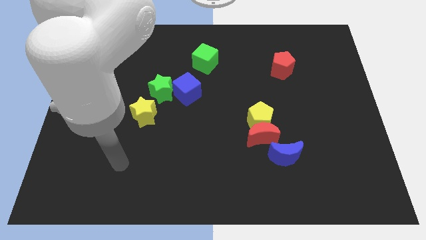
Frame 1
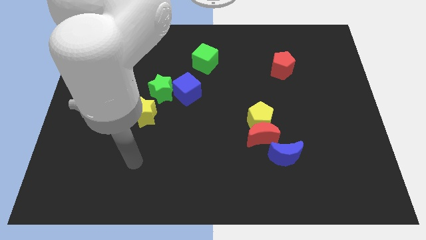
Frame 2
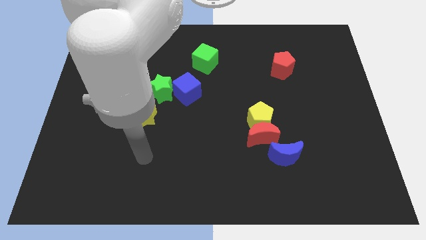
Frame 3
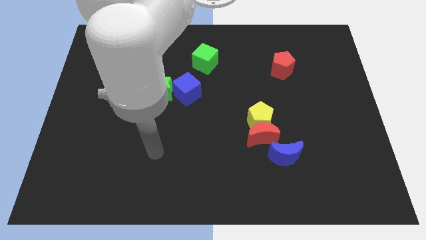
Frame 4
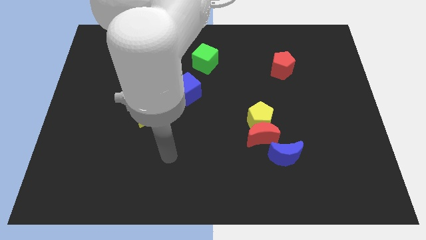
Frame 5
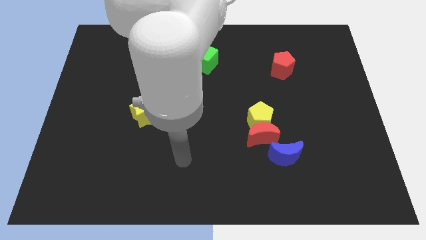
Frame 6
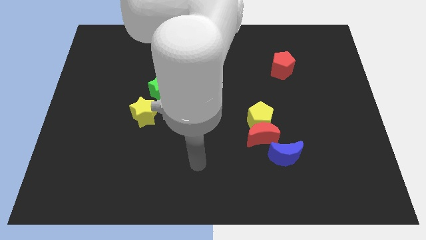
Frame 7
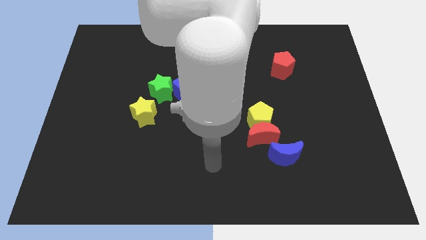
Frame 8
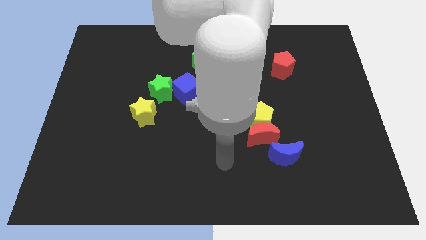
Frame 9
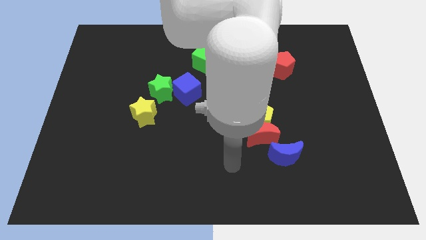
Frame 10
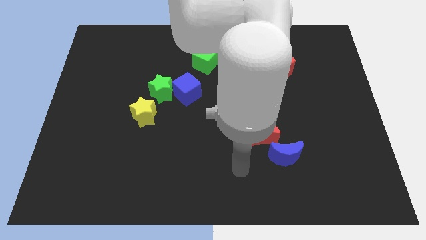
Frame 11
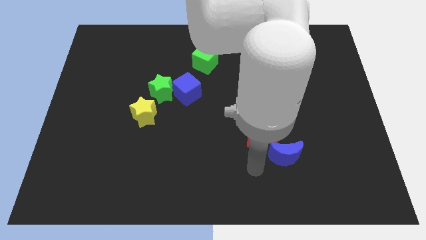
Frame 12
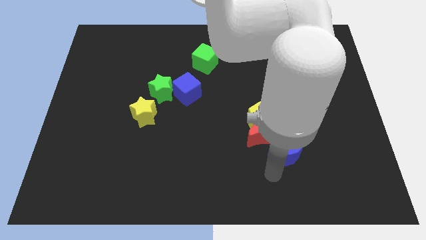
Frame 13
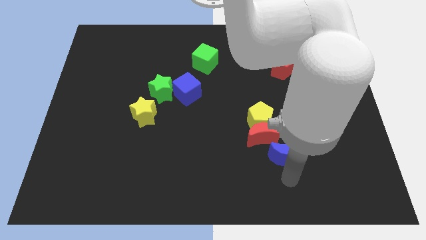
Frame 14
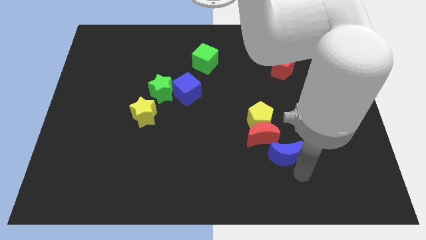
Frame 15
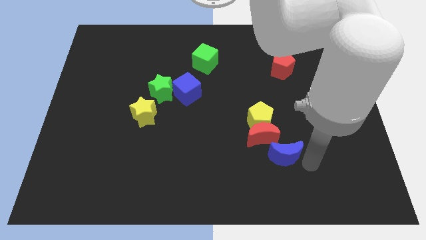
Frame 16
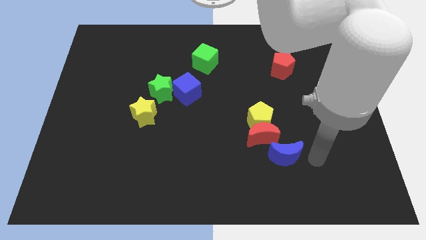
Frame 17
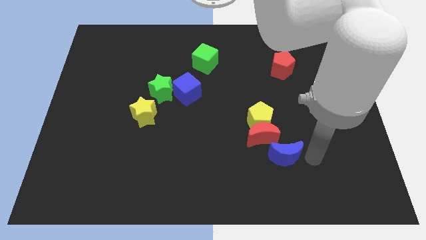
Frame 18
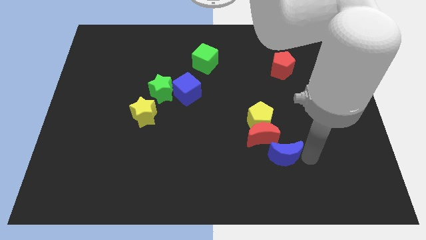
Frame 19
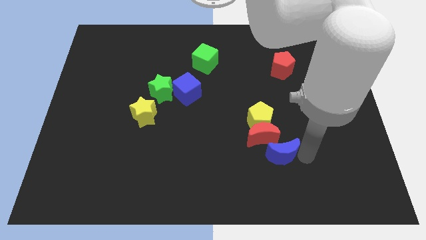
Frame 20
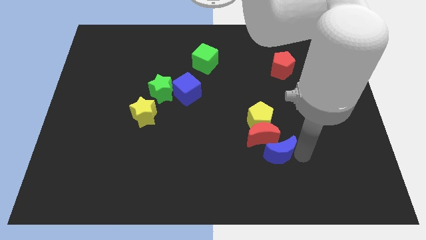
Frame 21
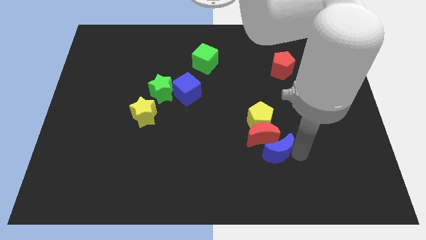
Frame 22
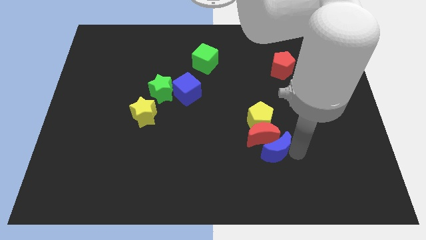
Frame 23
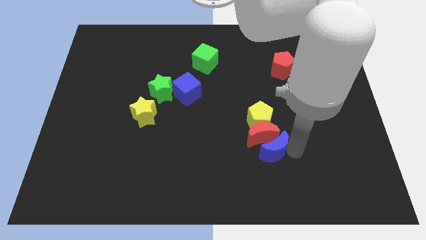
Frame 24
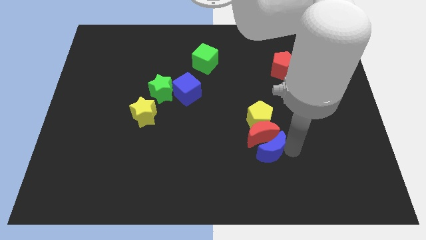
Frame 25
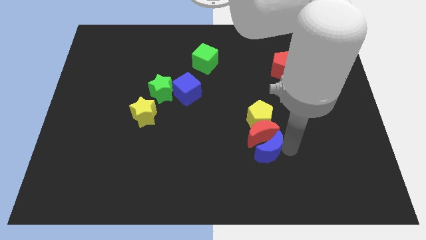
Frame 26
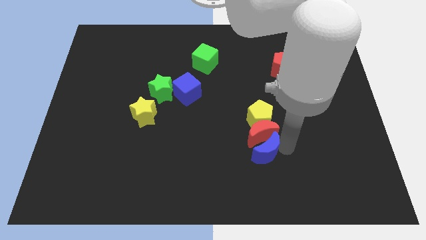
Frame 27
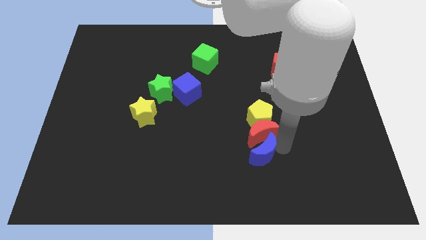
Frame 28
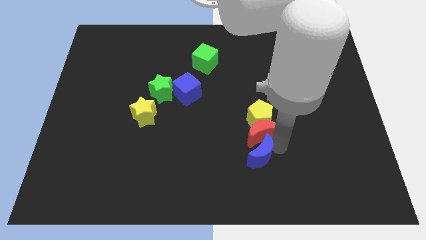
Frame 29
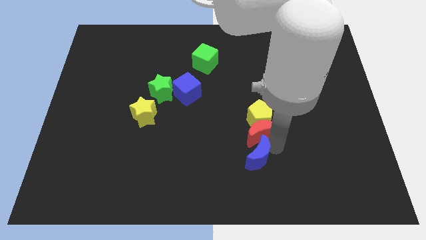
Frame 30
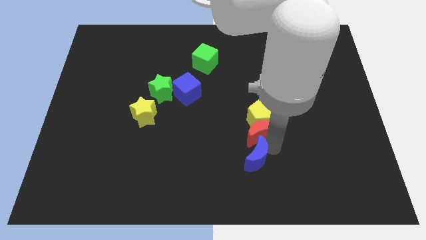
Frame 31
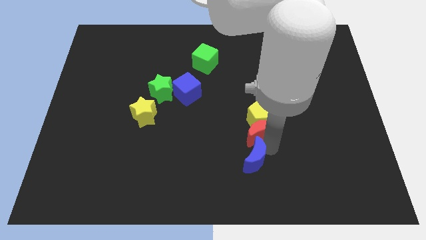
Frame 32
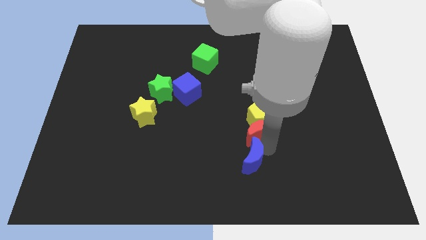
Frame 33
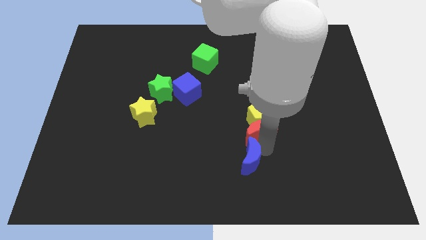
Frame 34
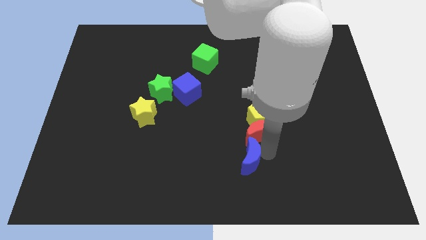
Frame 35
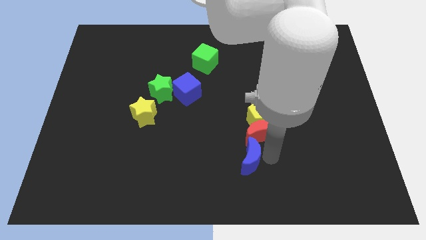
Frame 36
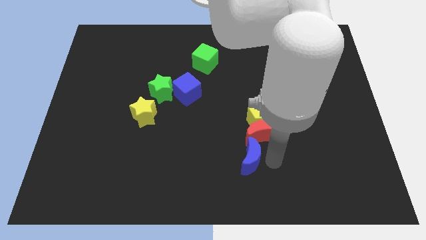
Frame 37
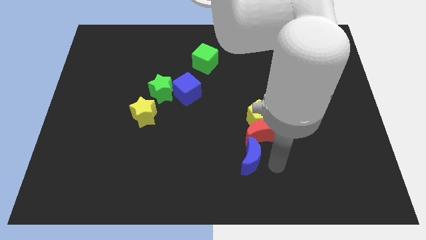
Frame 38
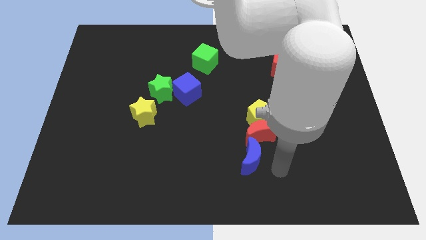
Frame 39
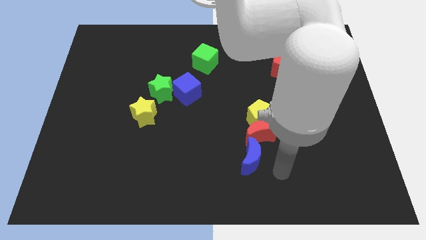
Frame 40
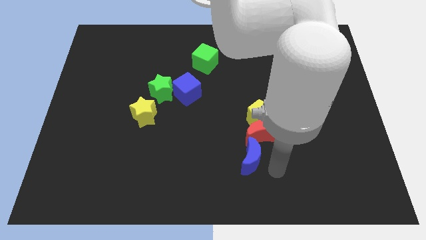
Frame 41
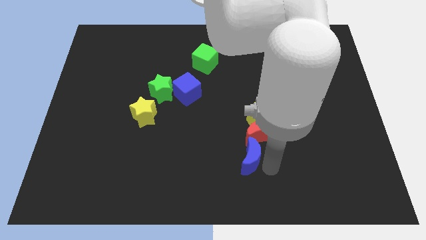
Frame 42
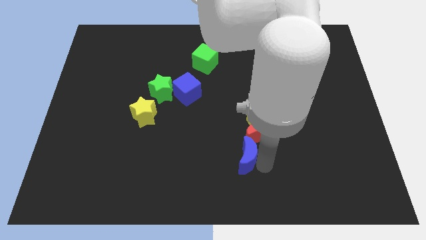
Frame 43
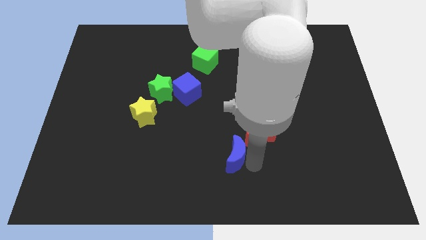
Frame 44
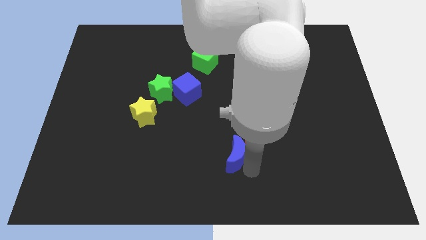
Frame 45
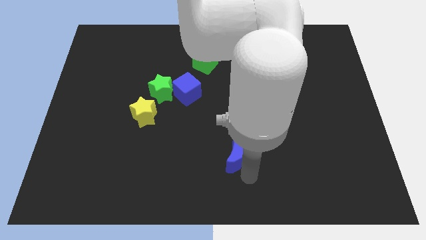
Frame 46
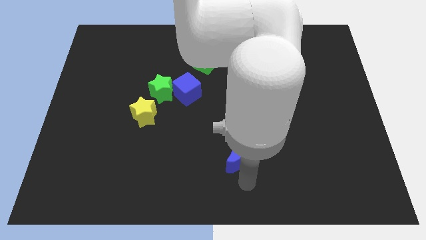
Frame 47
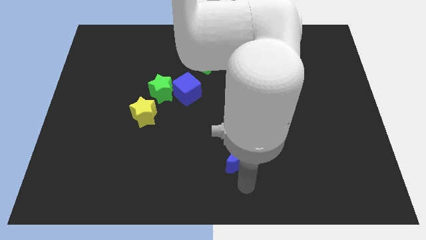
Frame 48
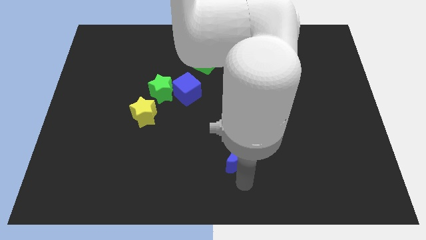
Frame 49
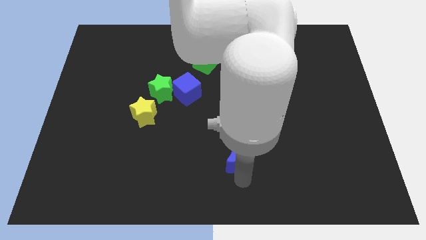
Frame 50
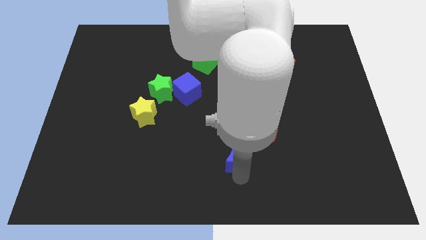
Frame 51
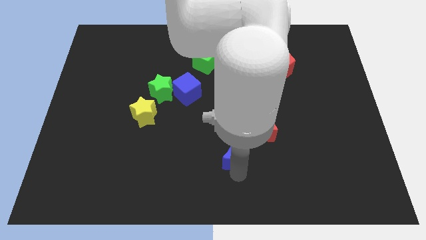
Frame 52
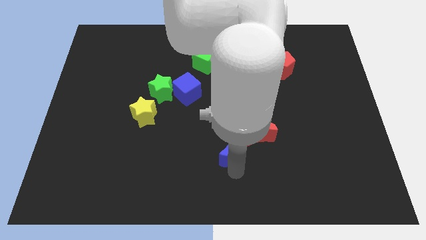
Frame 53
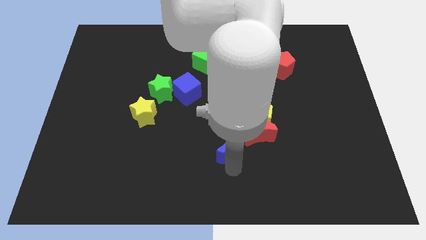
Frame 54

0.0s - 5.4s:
slide the blue moon upwards and left a bit

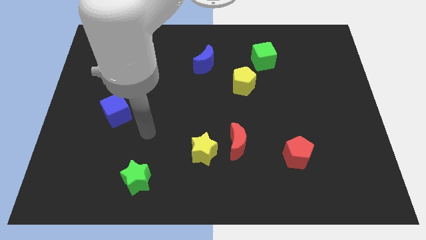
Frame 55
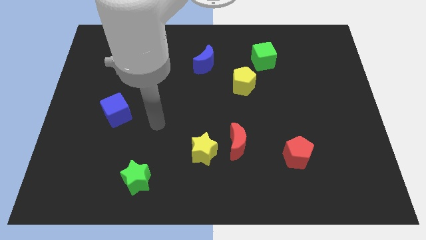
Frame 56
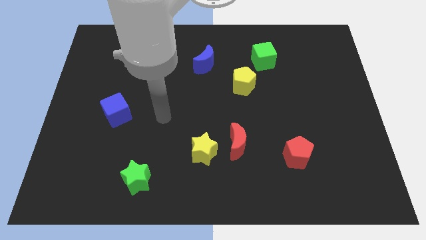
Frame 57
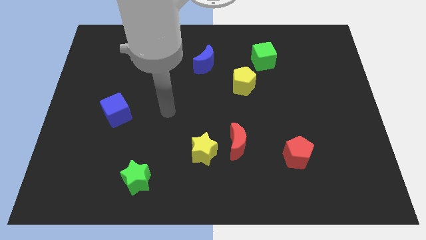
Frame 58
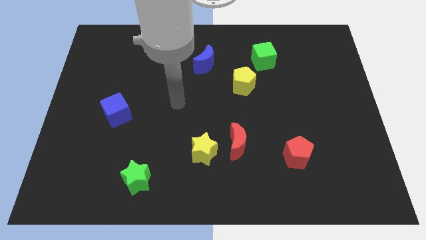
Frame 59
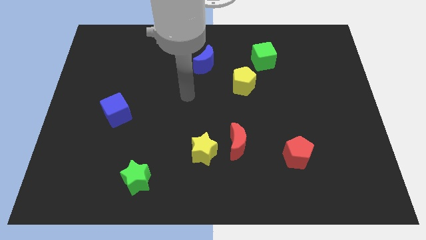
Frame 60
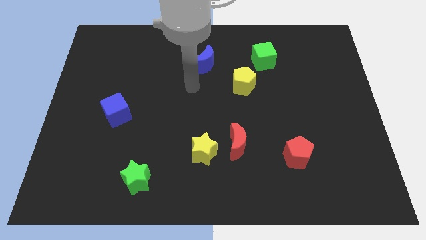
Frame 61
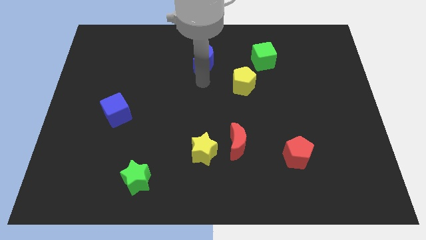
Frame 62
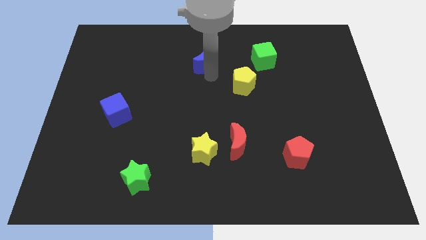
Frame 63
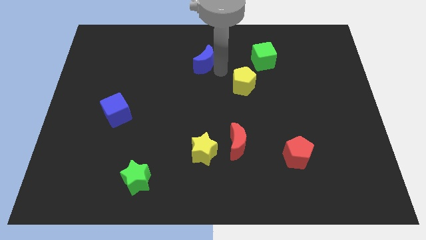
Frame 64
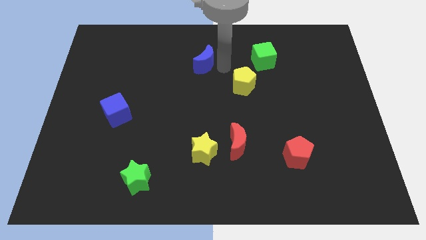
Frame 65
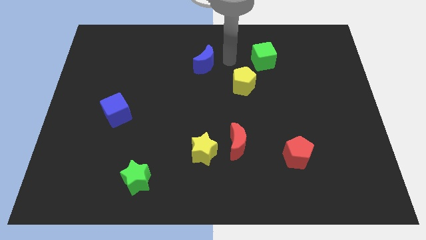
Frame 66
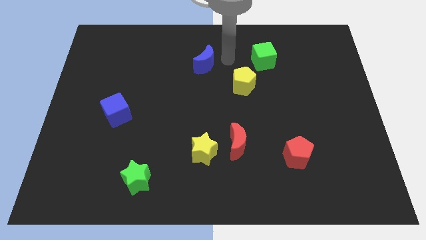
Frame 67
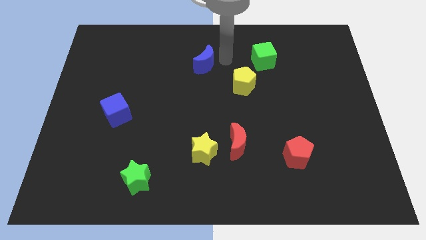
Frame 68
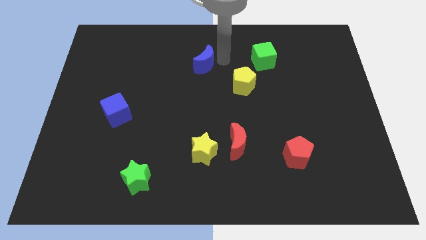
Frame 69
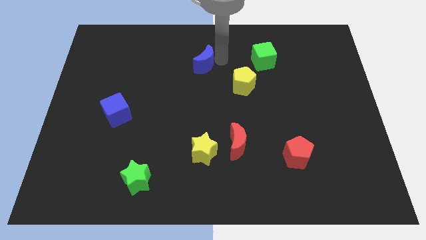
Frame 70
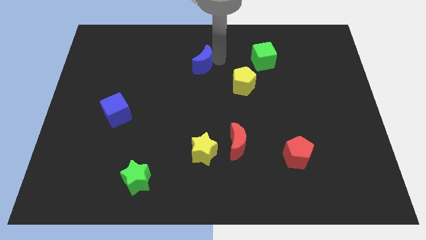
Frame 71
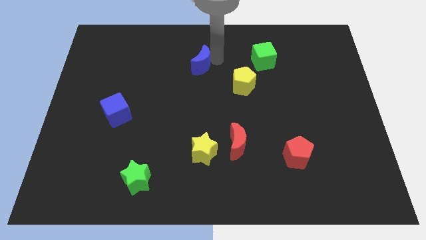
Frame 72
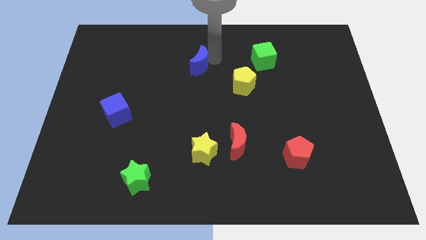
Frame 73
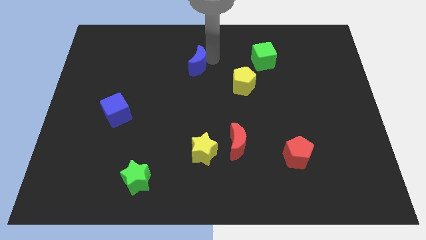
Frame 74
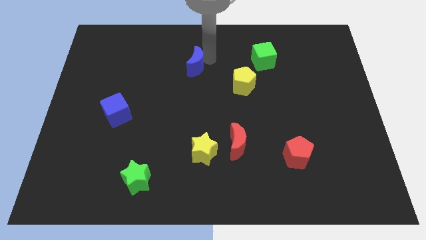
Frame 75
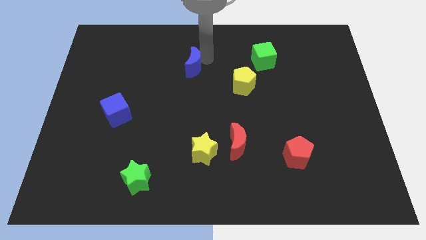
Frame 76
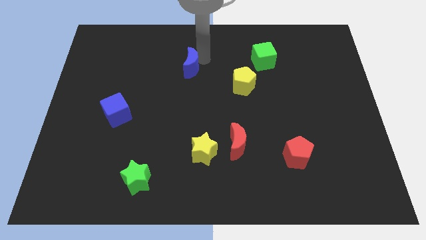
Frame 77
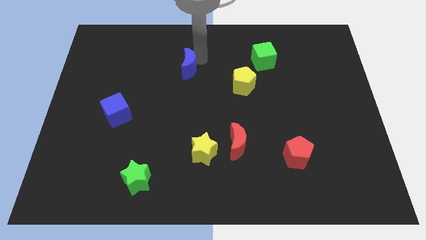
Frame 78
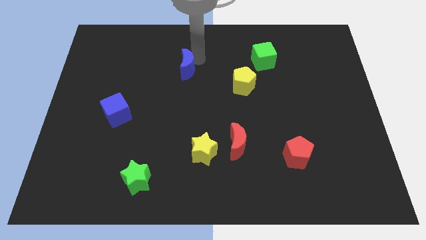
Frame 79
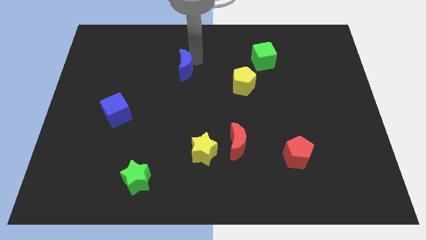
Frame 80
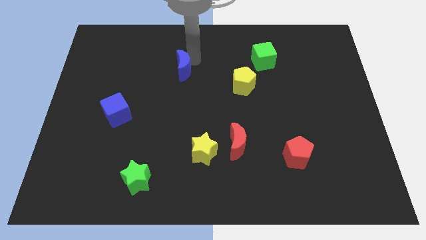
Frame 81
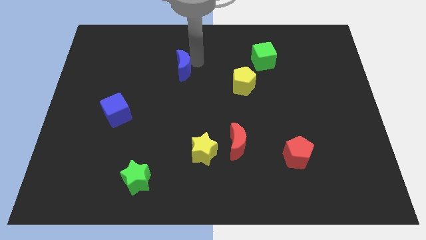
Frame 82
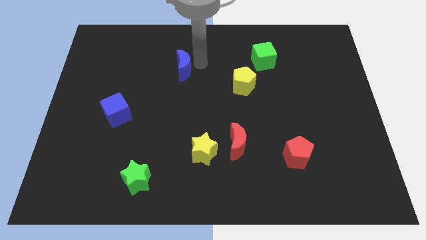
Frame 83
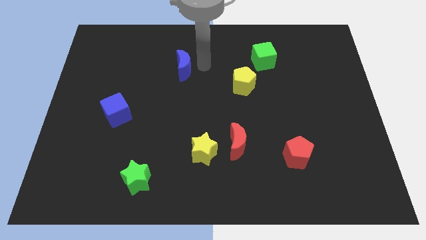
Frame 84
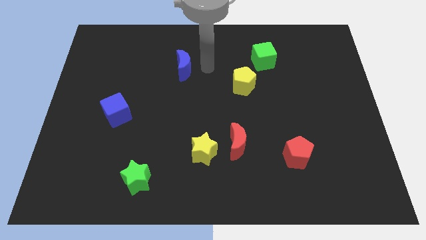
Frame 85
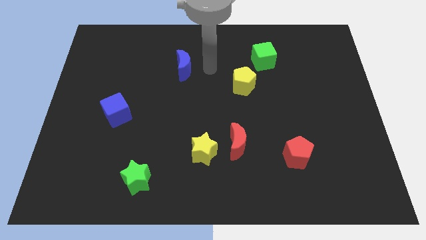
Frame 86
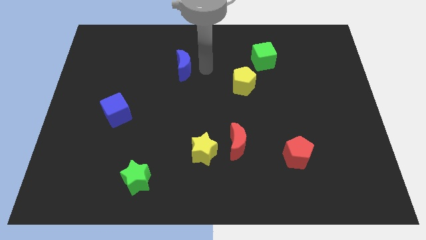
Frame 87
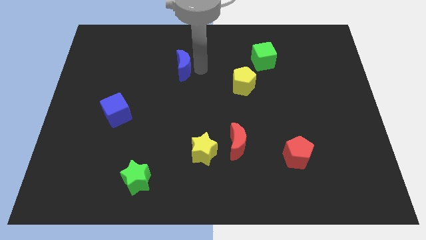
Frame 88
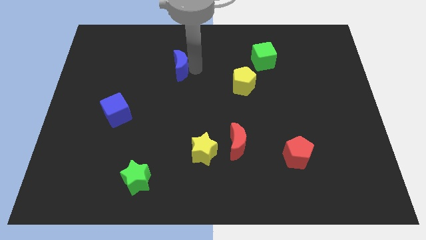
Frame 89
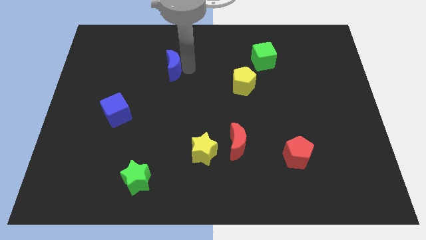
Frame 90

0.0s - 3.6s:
push the blue moon a little left
